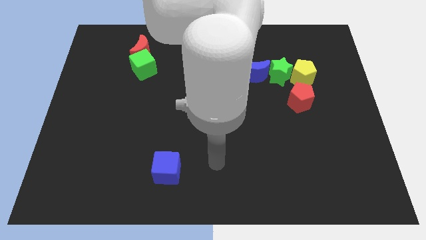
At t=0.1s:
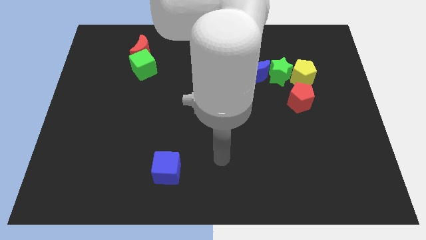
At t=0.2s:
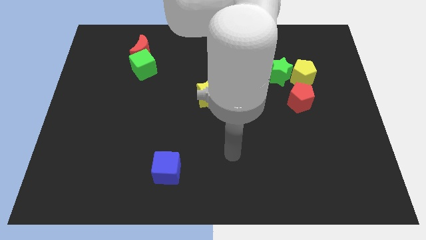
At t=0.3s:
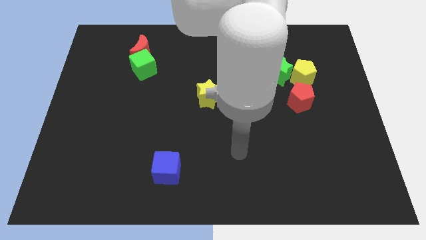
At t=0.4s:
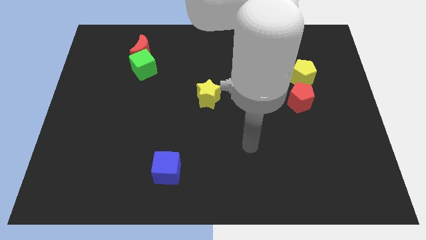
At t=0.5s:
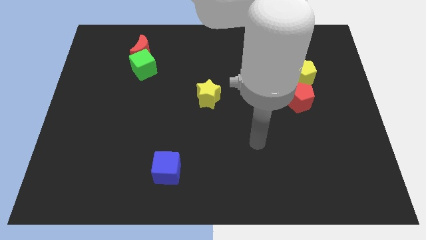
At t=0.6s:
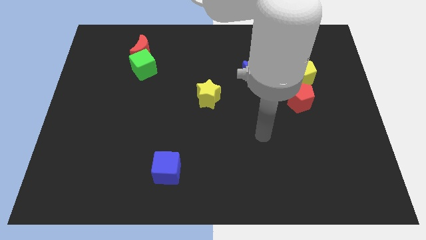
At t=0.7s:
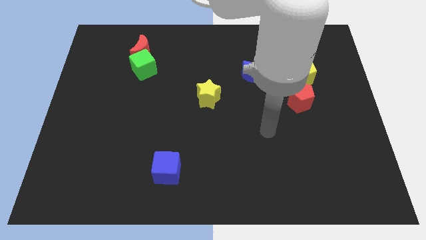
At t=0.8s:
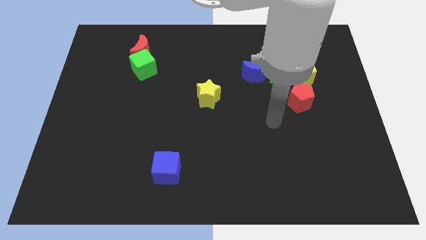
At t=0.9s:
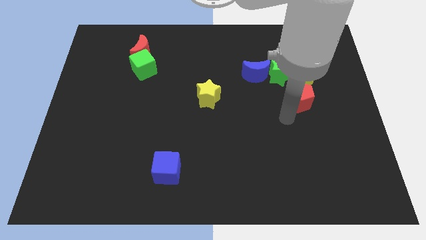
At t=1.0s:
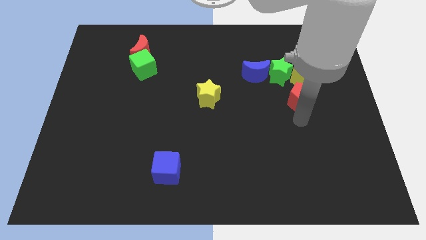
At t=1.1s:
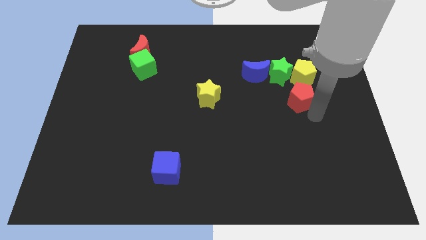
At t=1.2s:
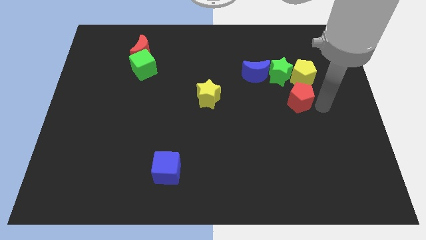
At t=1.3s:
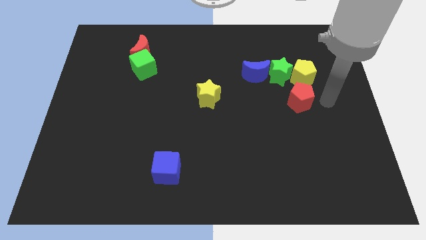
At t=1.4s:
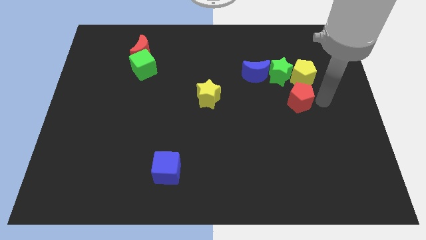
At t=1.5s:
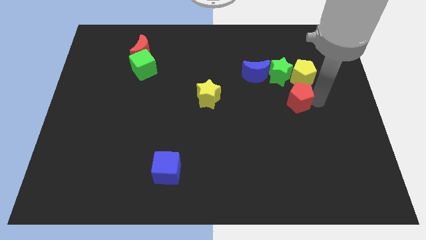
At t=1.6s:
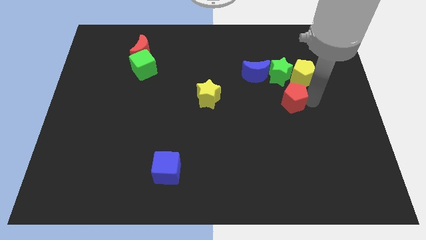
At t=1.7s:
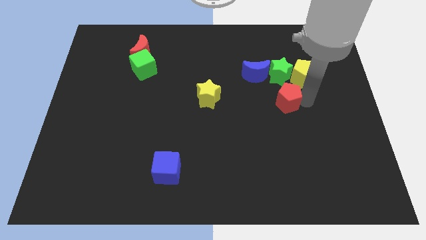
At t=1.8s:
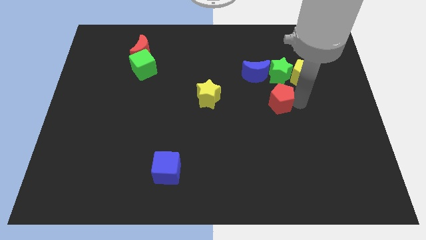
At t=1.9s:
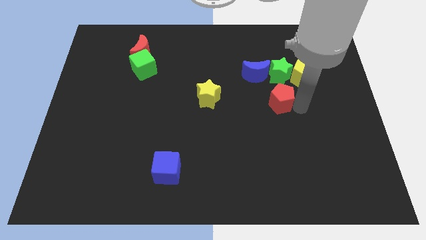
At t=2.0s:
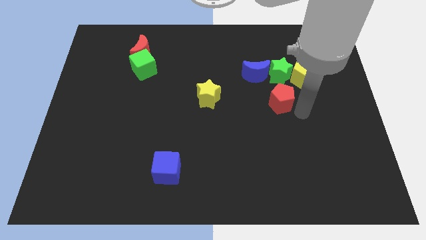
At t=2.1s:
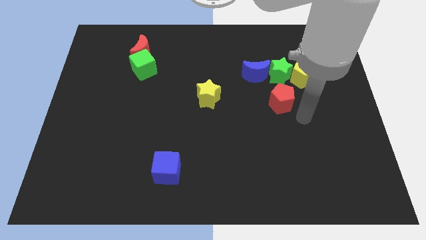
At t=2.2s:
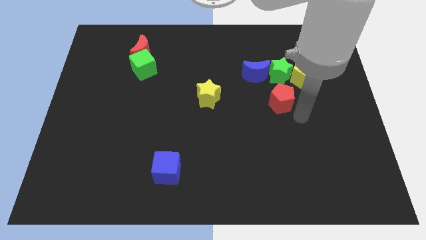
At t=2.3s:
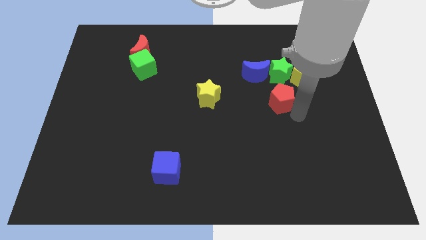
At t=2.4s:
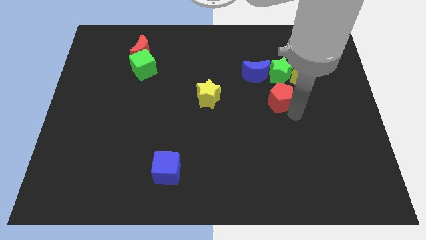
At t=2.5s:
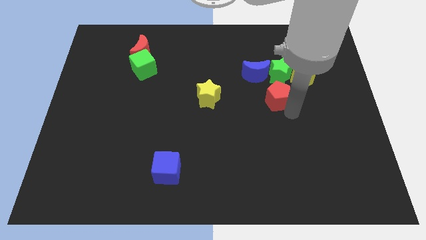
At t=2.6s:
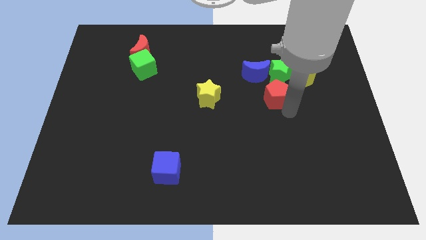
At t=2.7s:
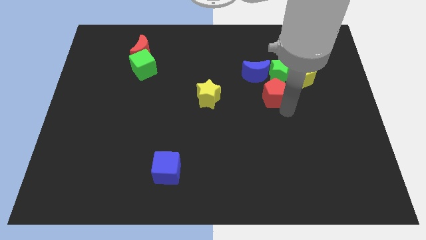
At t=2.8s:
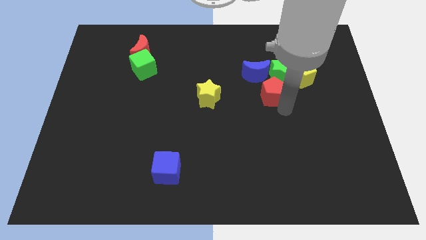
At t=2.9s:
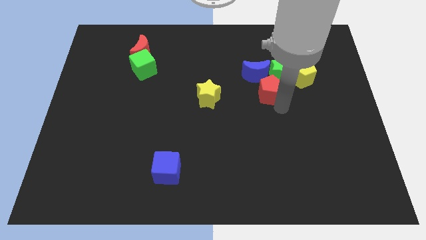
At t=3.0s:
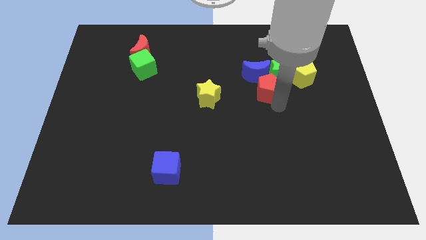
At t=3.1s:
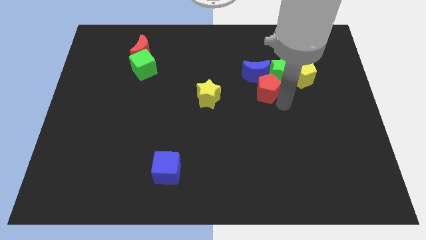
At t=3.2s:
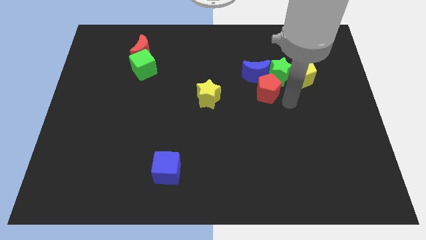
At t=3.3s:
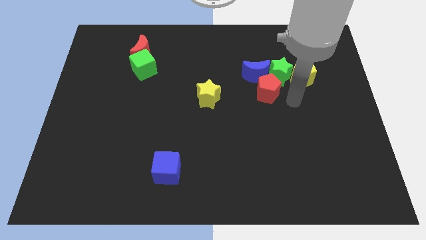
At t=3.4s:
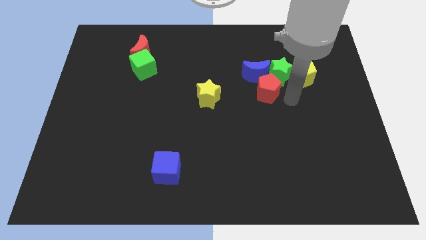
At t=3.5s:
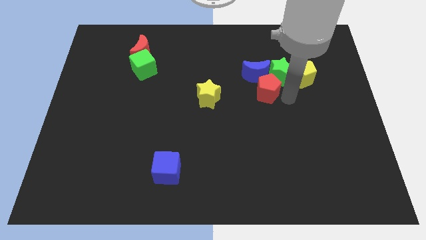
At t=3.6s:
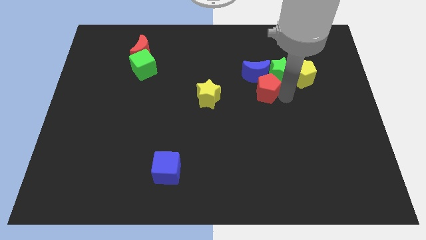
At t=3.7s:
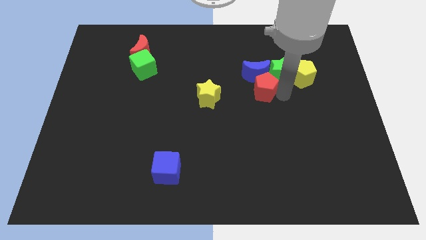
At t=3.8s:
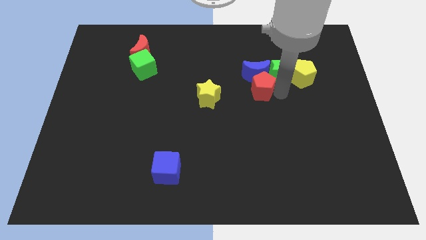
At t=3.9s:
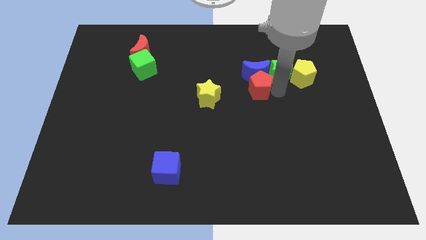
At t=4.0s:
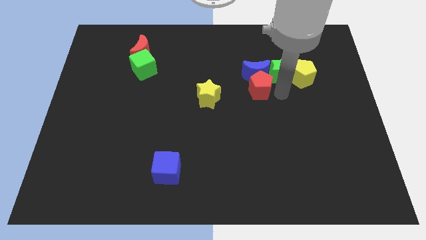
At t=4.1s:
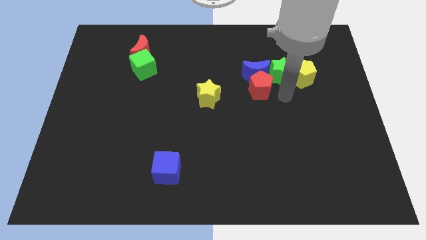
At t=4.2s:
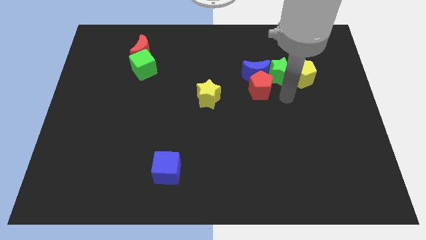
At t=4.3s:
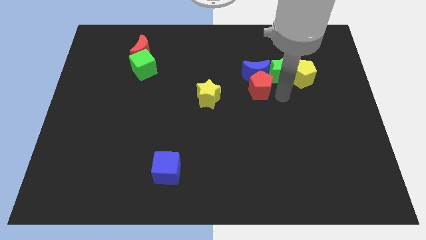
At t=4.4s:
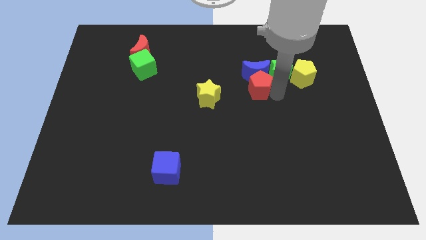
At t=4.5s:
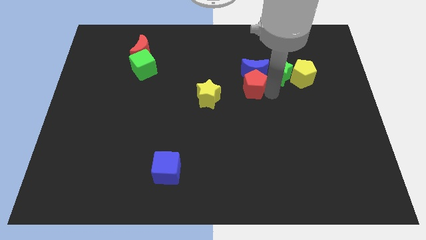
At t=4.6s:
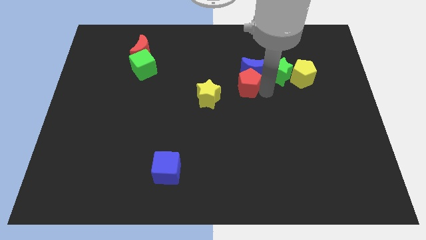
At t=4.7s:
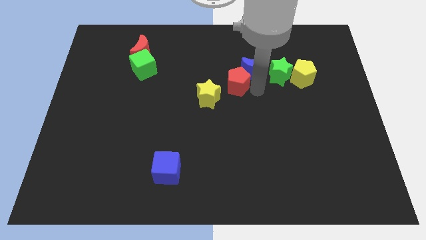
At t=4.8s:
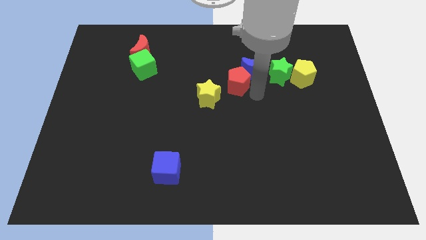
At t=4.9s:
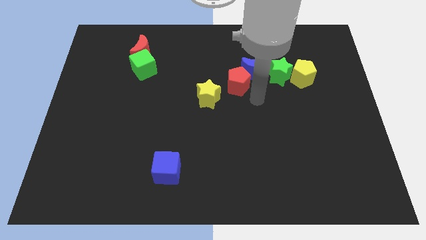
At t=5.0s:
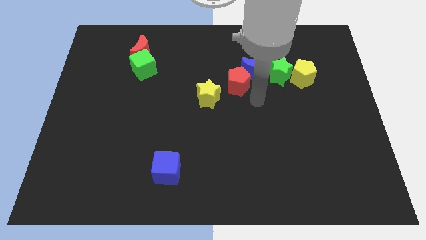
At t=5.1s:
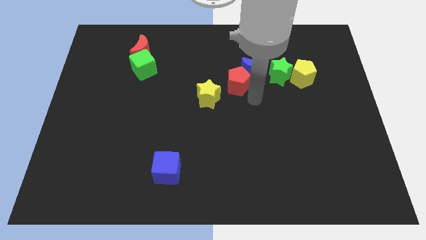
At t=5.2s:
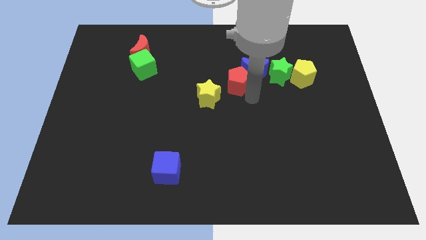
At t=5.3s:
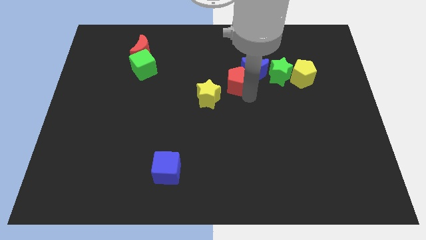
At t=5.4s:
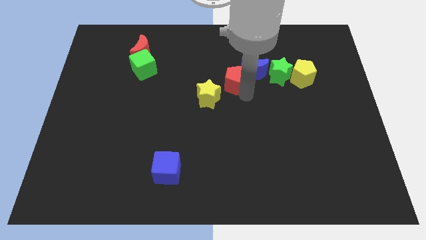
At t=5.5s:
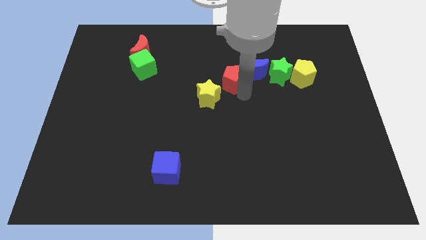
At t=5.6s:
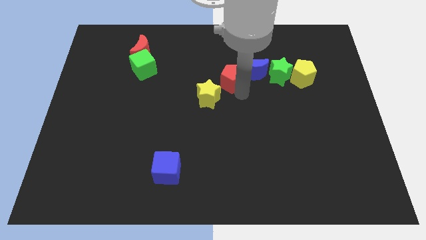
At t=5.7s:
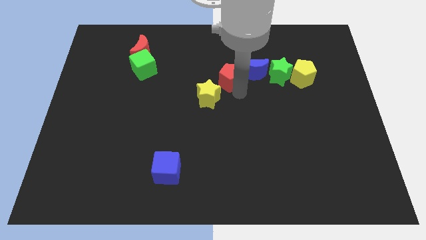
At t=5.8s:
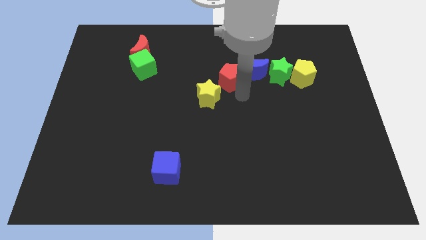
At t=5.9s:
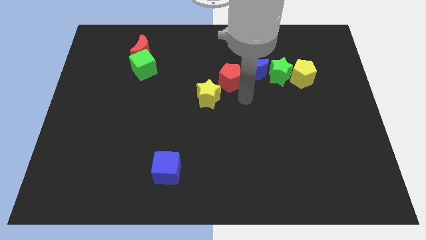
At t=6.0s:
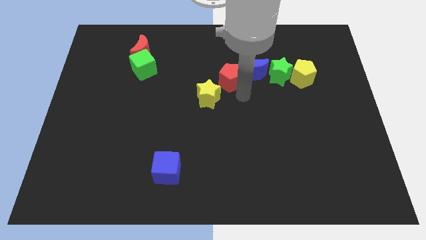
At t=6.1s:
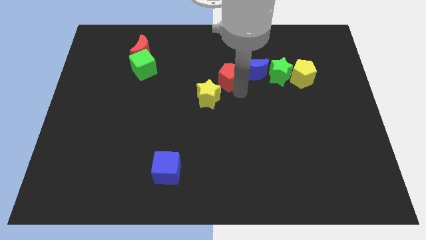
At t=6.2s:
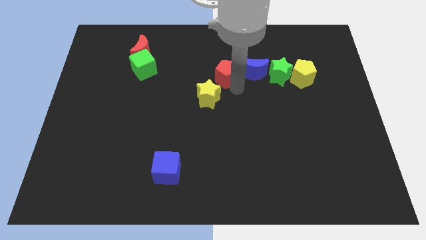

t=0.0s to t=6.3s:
move the red pentagon to the top of the yellow star
